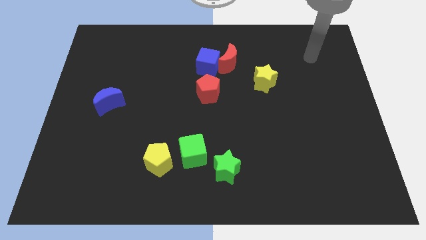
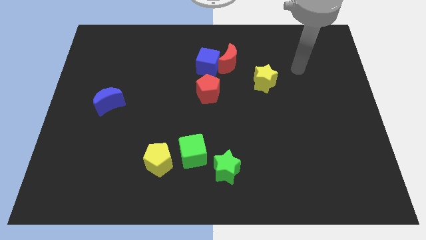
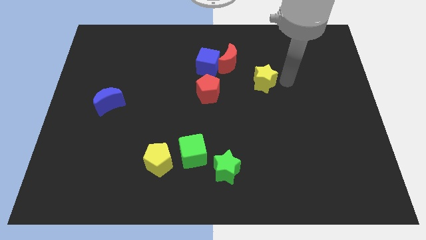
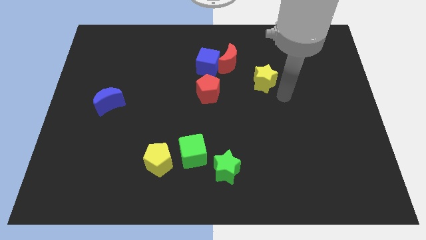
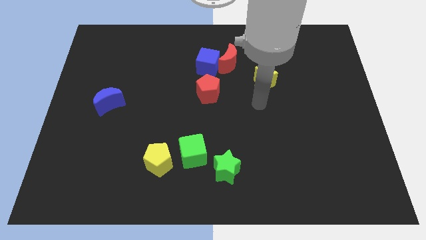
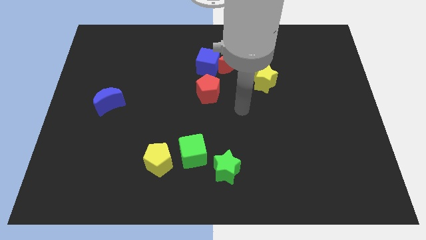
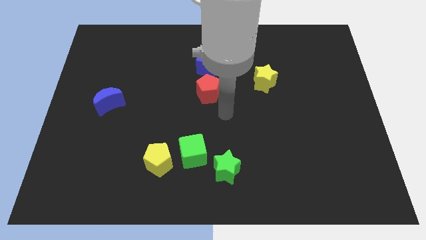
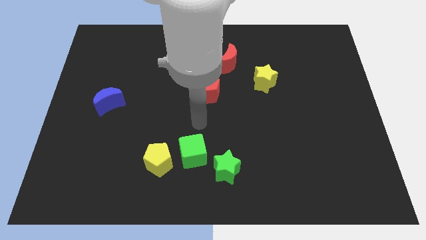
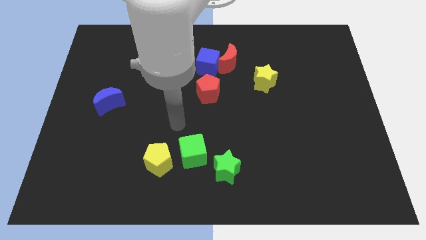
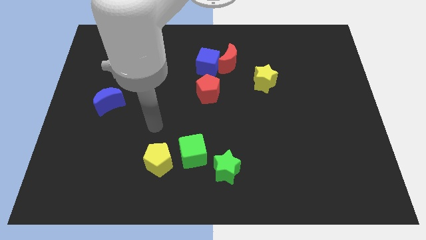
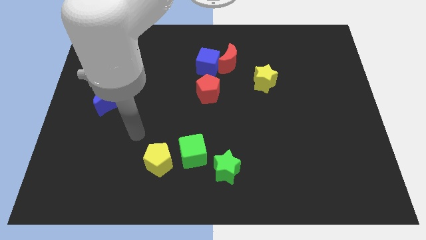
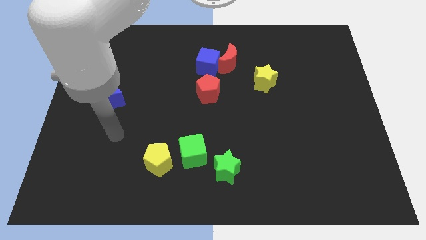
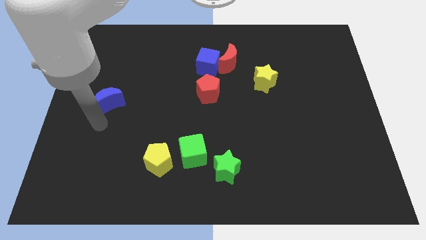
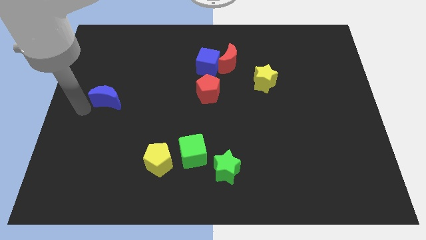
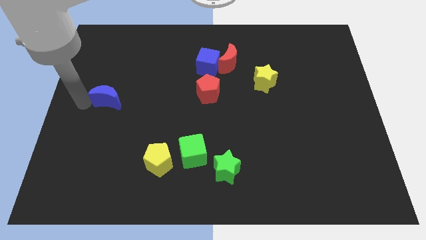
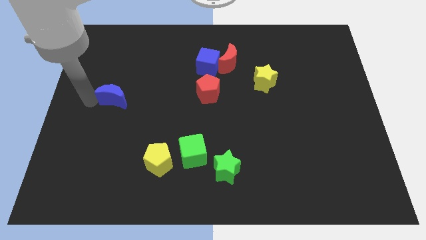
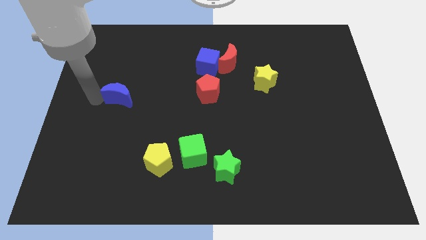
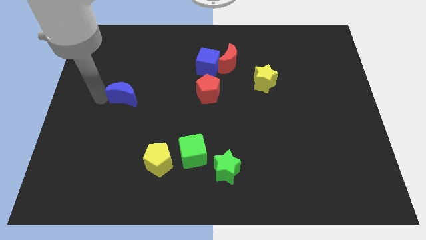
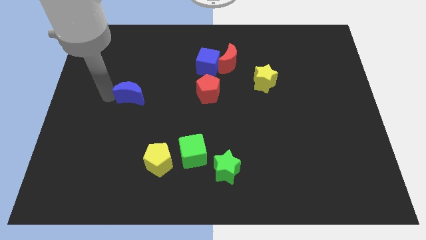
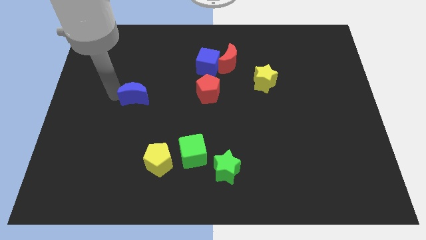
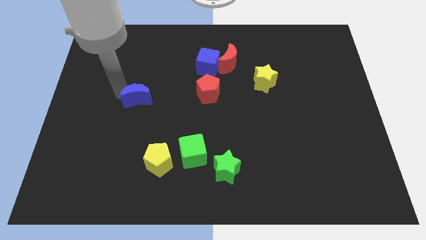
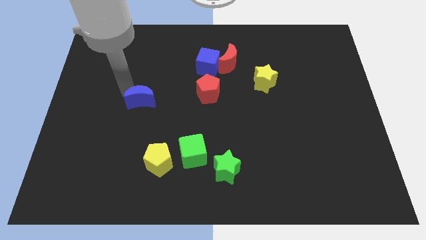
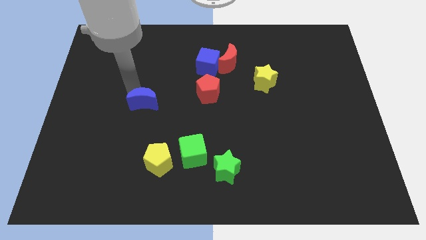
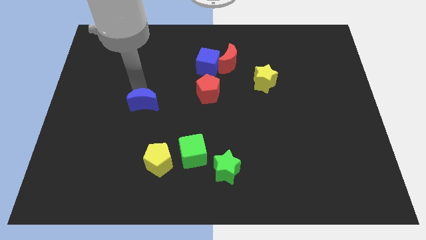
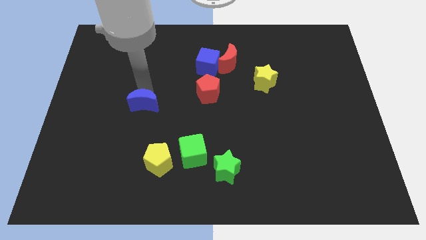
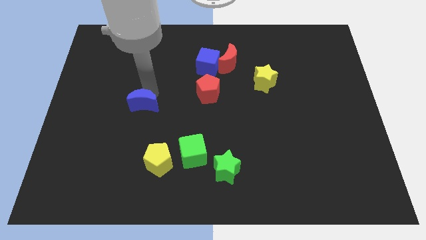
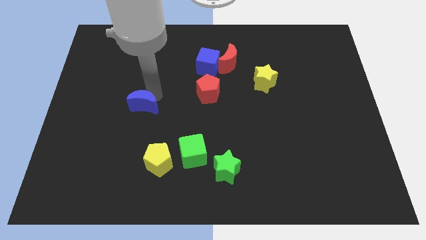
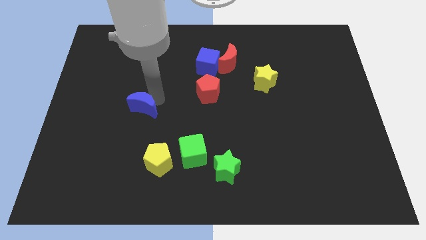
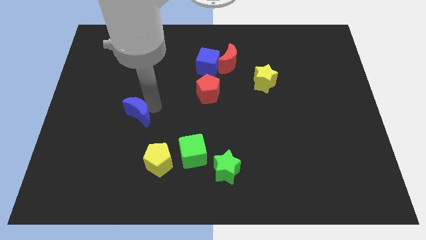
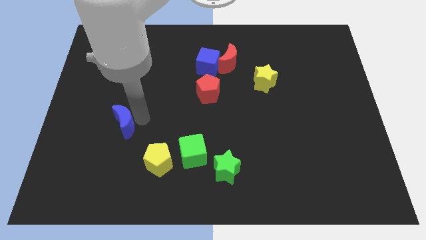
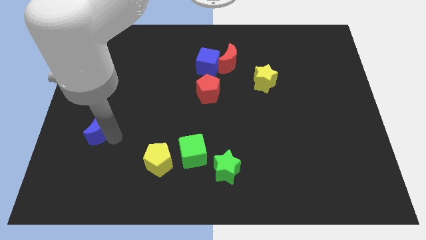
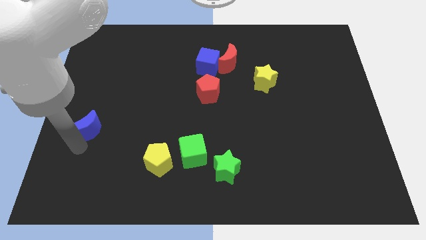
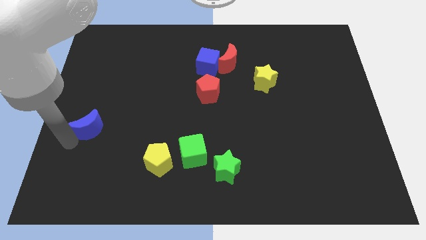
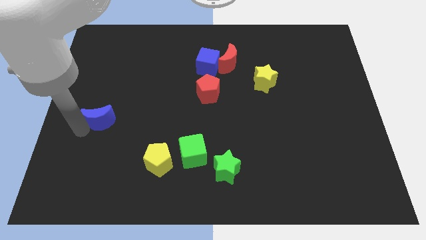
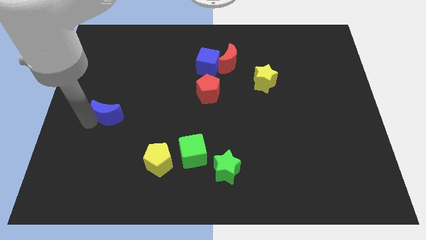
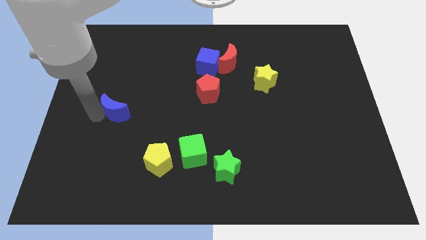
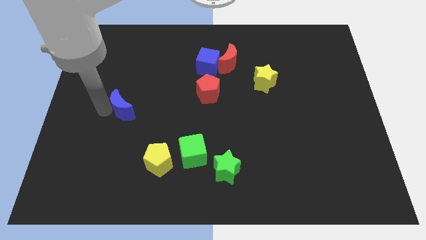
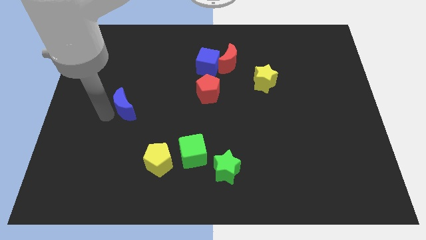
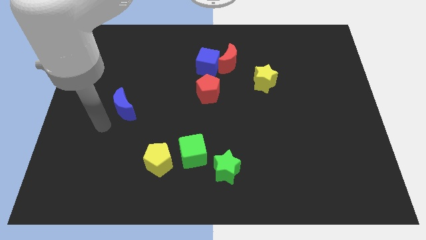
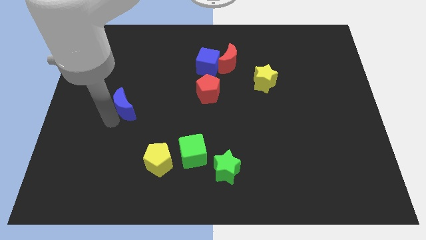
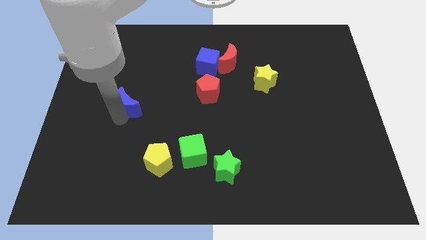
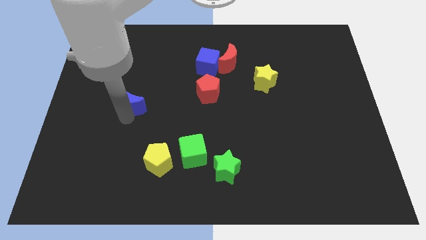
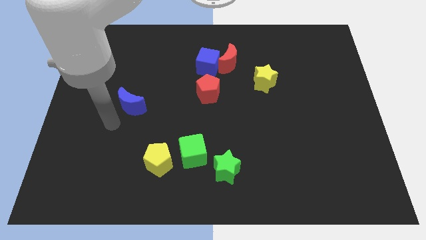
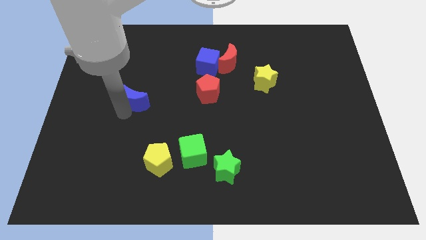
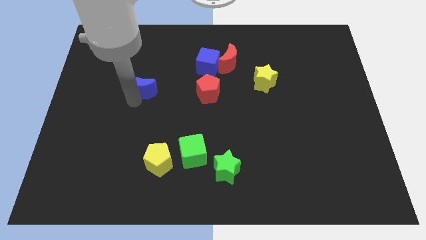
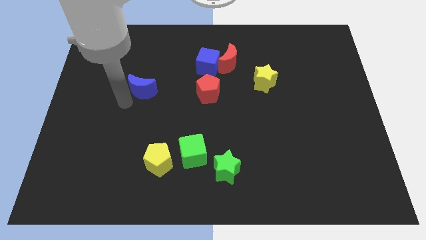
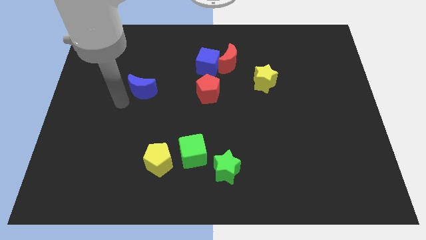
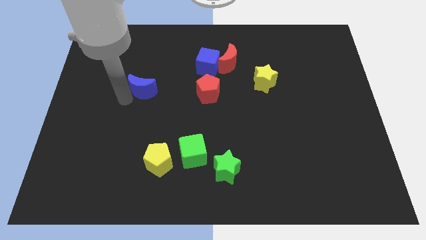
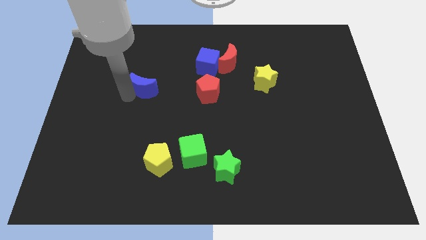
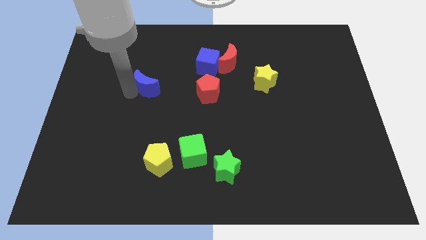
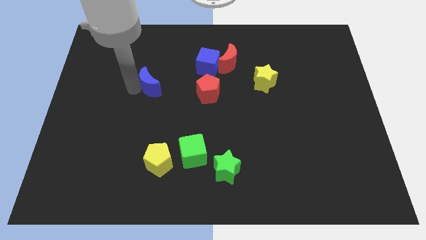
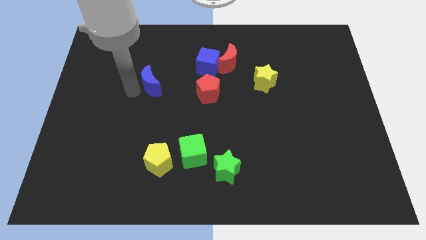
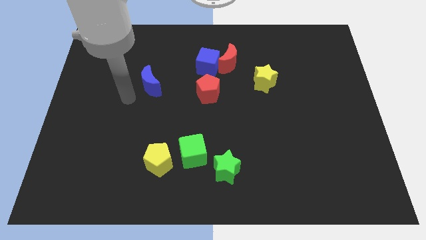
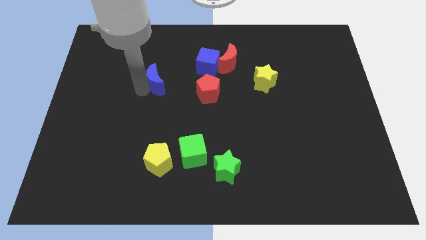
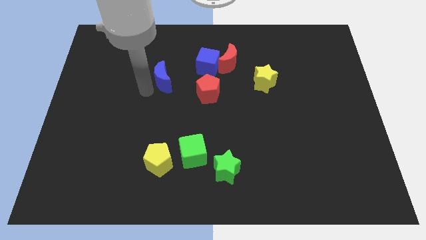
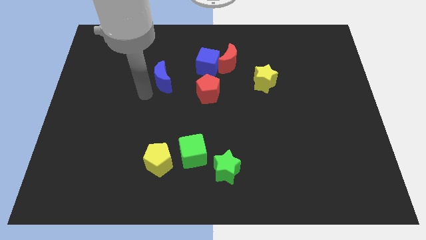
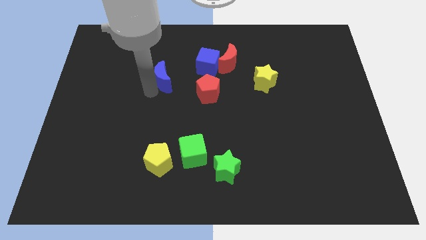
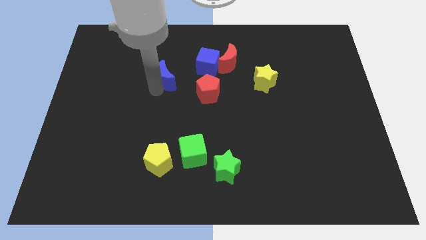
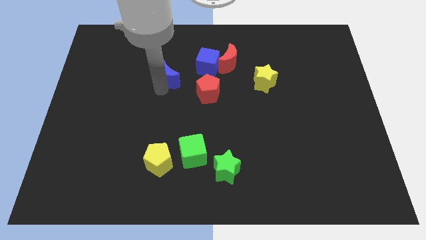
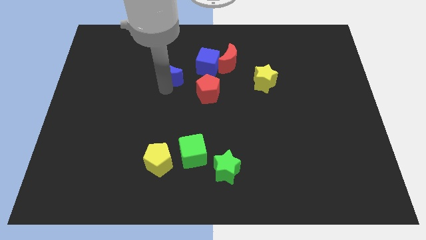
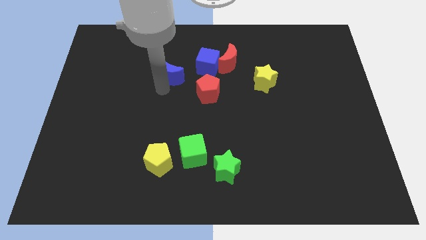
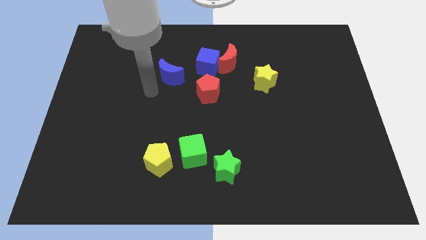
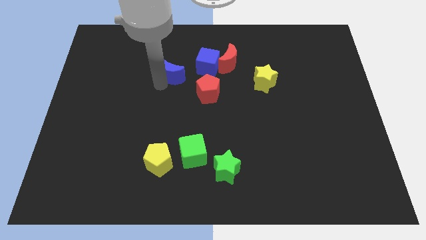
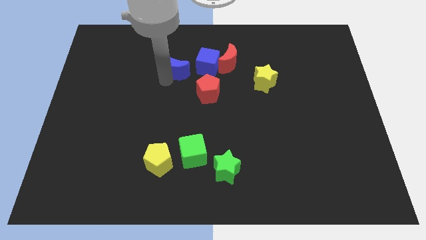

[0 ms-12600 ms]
move the blue moon to the left of the red moon

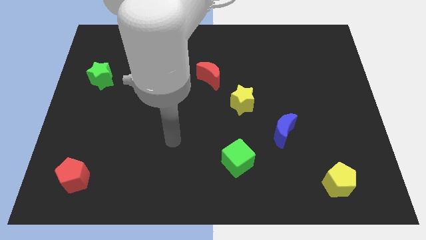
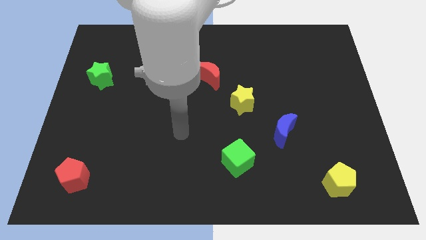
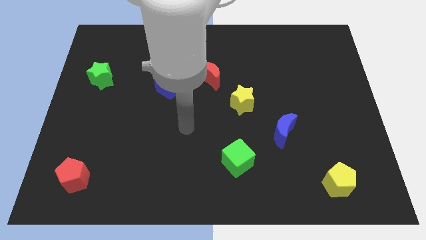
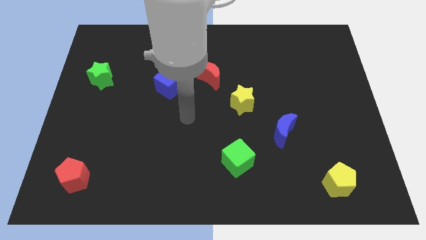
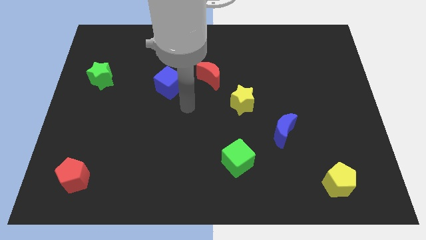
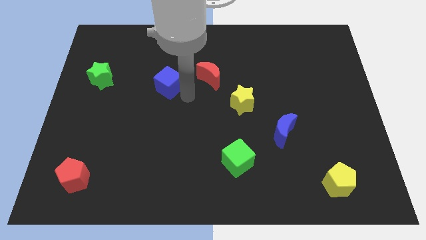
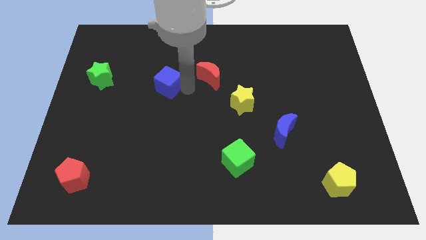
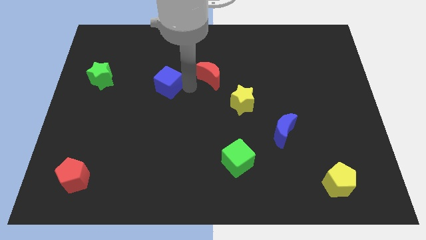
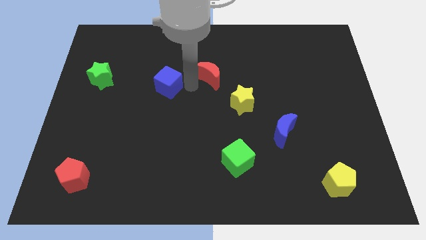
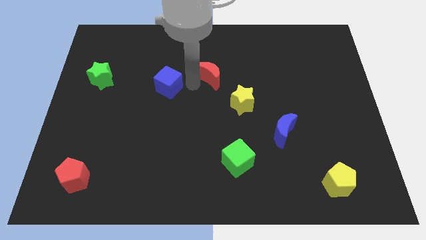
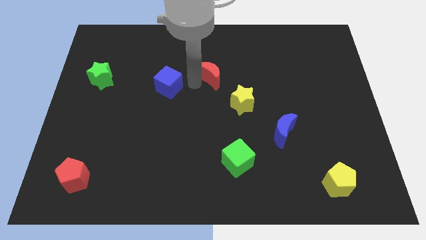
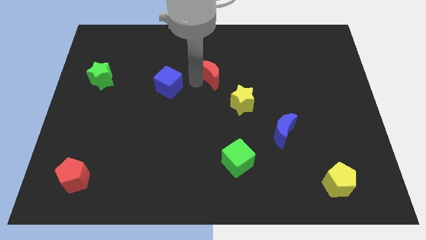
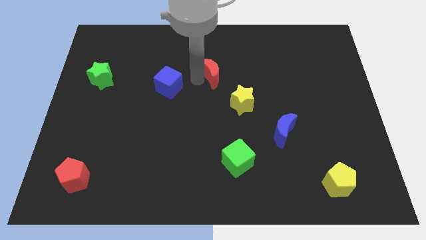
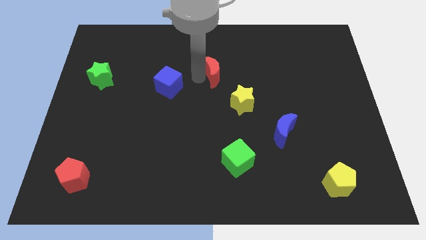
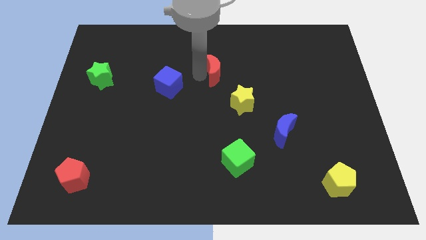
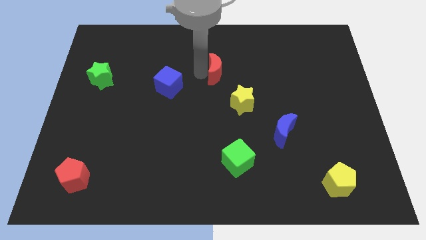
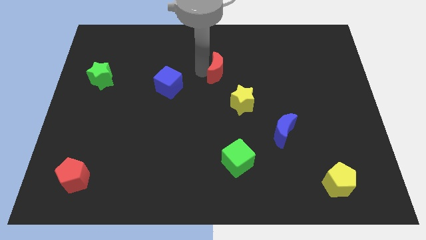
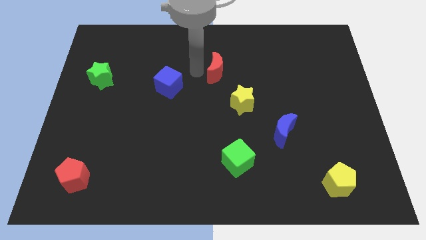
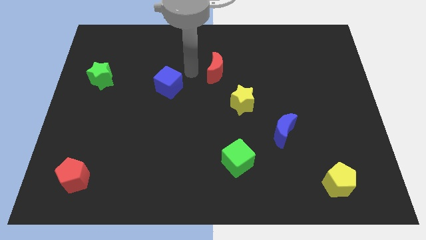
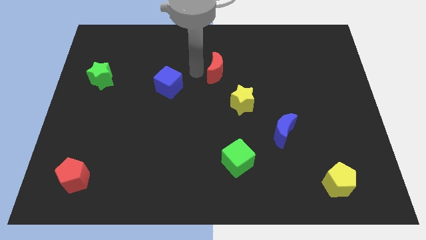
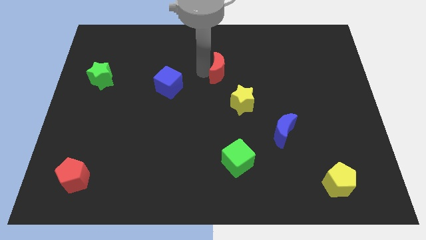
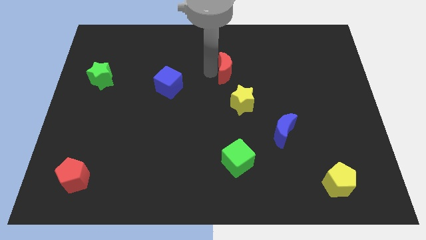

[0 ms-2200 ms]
slide the red moon to the top of the yellow star
